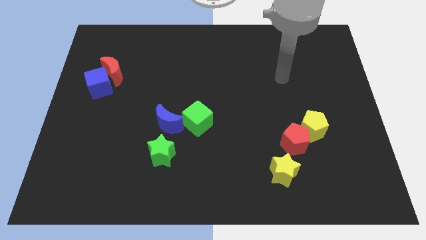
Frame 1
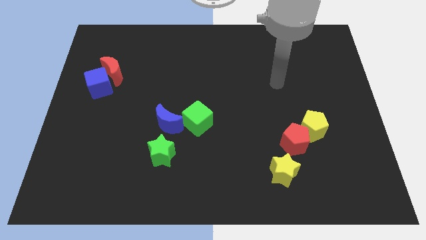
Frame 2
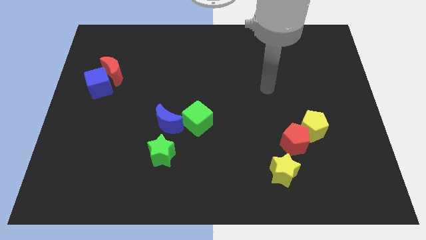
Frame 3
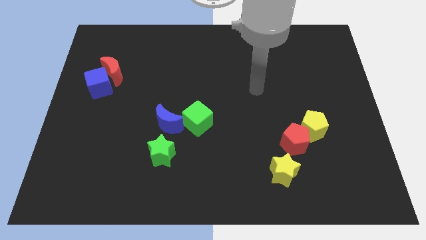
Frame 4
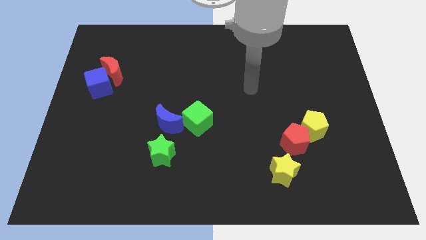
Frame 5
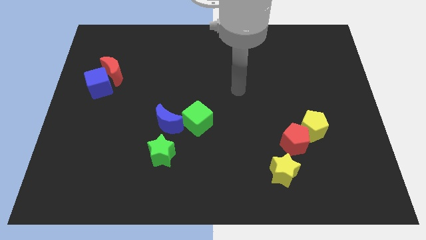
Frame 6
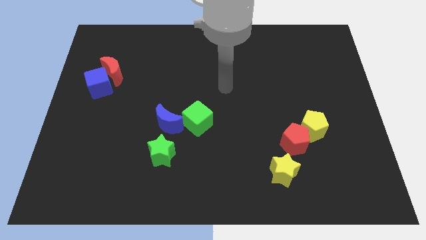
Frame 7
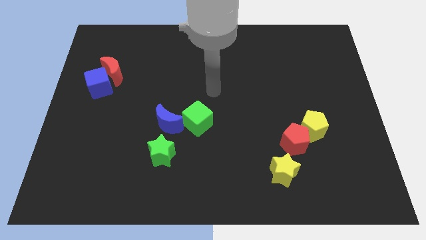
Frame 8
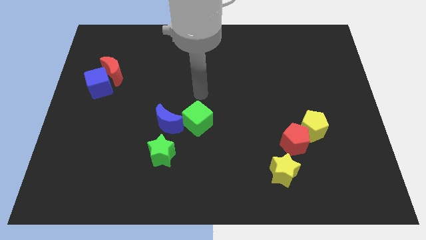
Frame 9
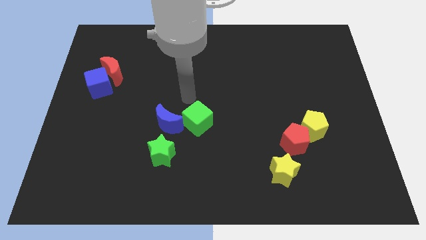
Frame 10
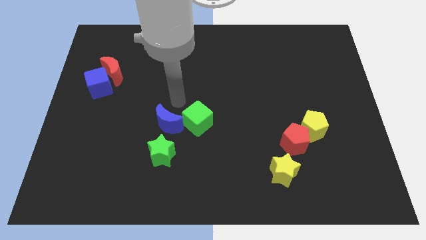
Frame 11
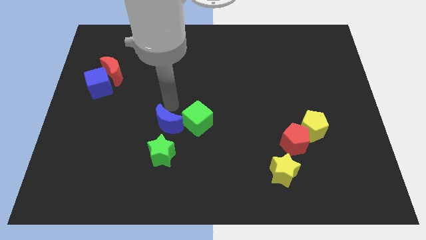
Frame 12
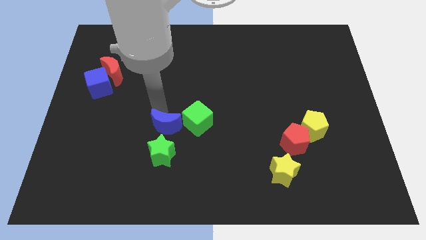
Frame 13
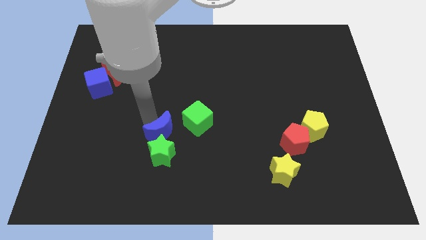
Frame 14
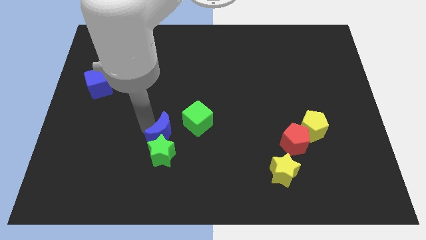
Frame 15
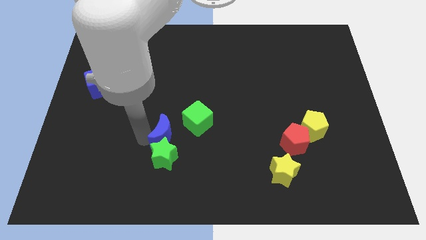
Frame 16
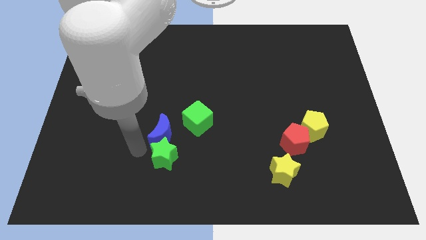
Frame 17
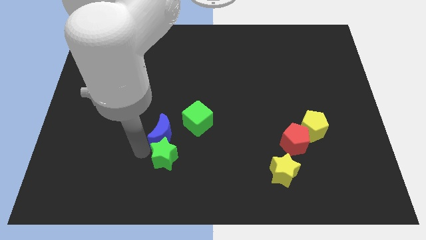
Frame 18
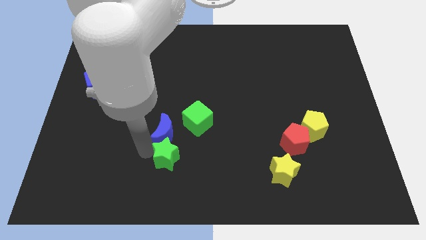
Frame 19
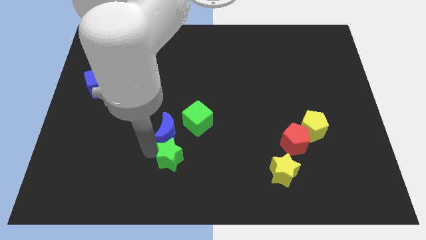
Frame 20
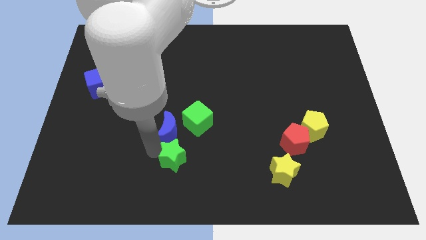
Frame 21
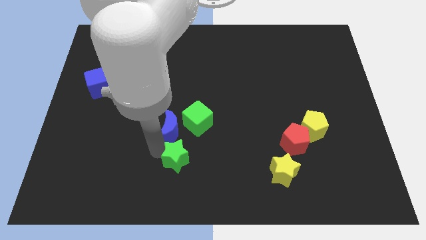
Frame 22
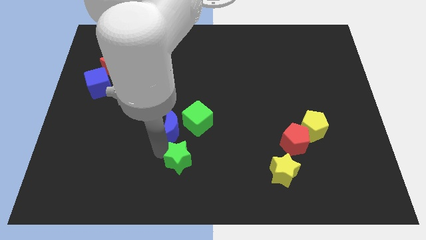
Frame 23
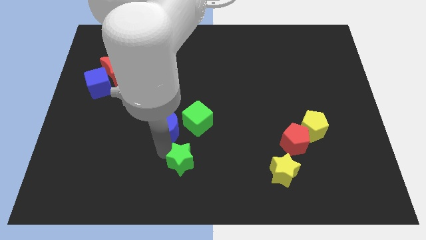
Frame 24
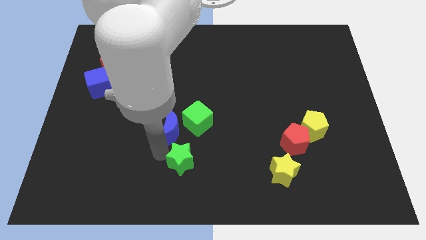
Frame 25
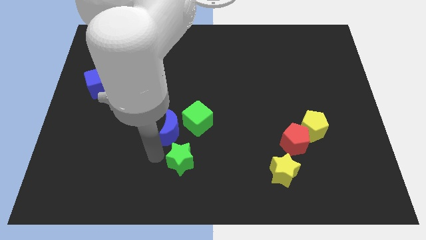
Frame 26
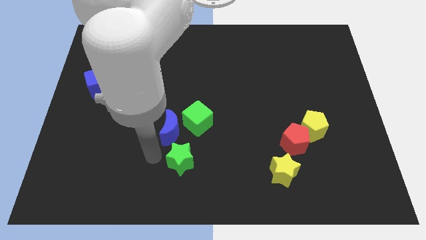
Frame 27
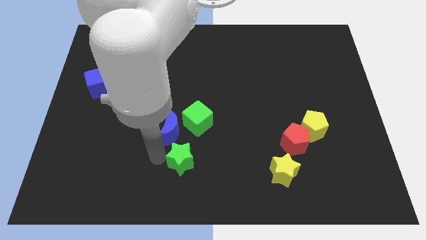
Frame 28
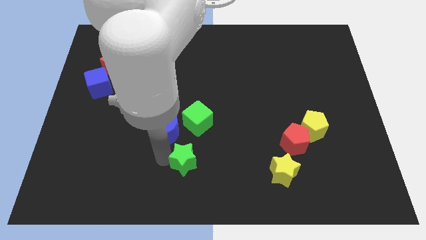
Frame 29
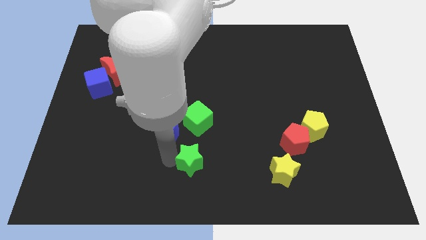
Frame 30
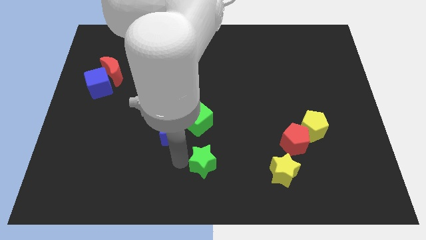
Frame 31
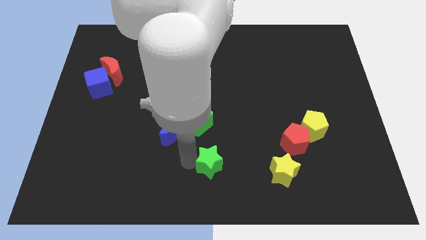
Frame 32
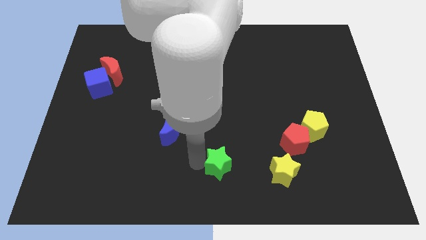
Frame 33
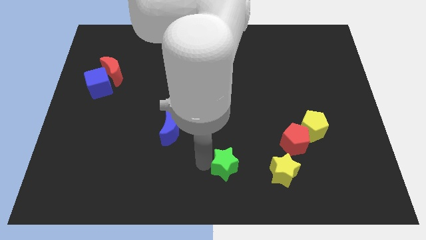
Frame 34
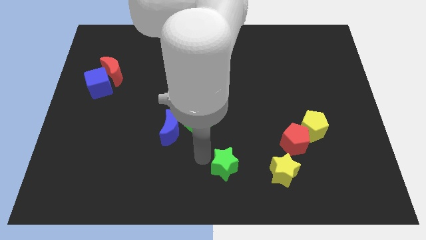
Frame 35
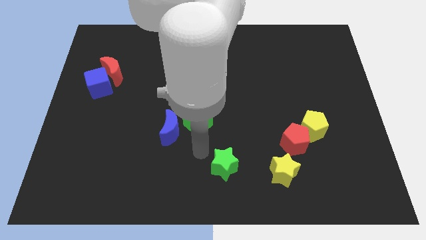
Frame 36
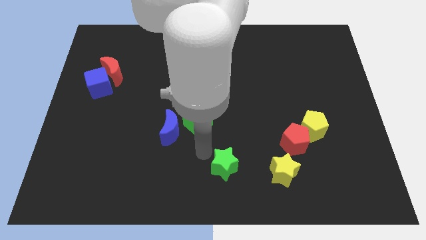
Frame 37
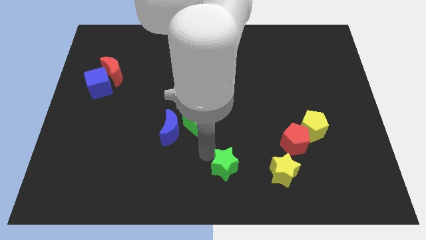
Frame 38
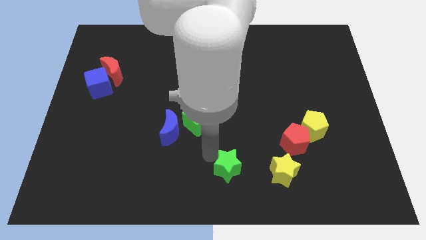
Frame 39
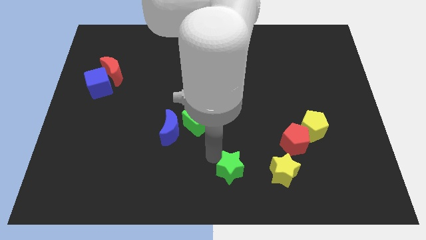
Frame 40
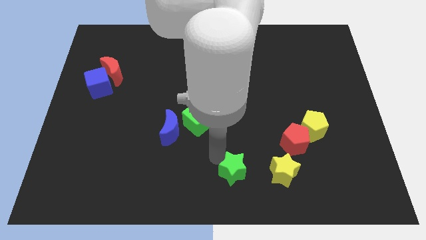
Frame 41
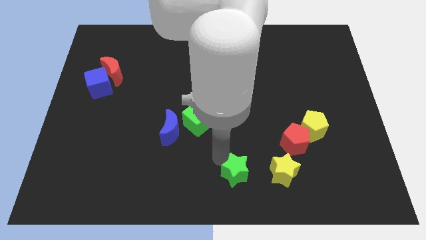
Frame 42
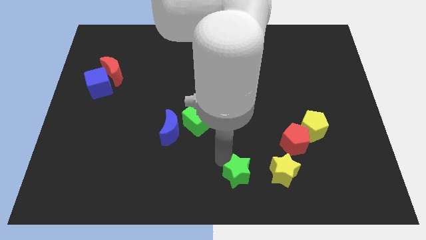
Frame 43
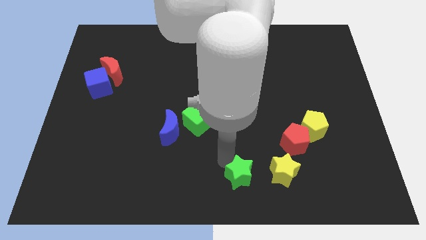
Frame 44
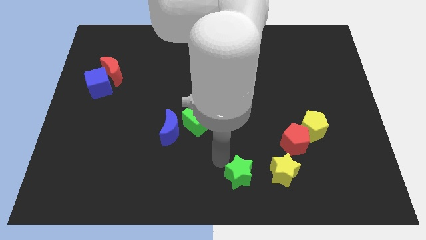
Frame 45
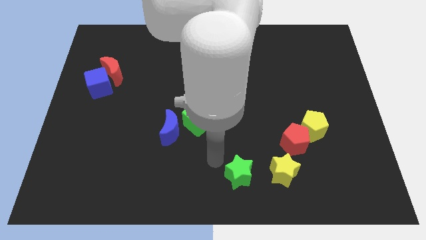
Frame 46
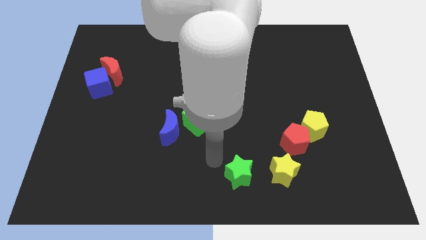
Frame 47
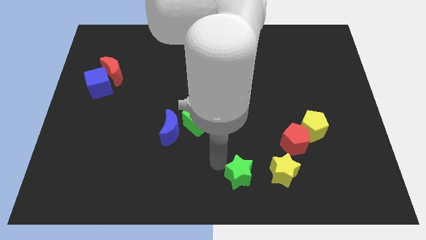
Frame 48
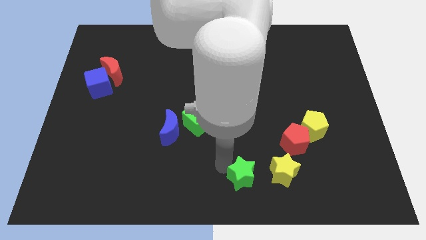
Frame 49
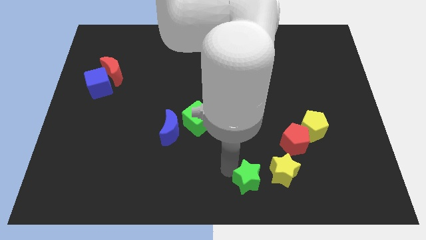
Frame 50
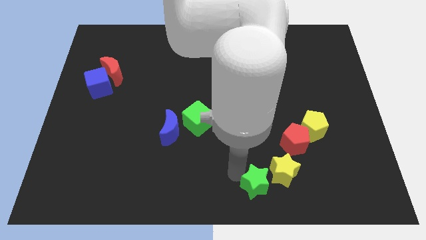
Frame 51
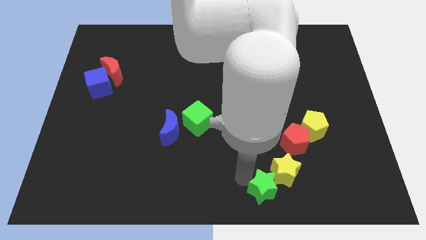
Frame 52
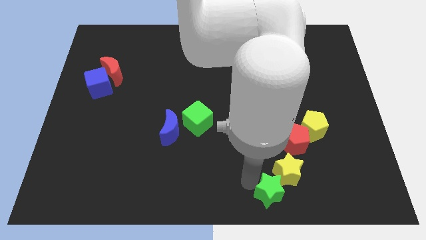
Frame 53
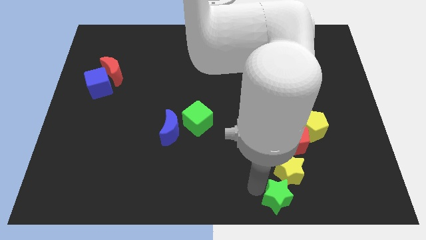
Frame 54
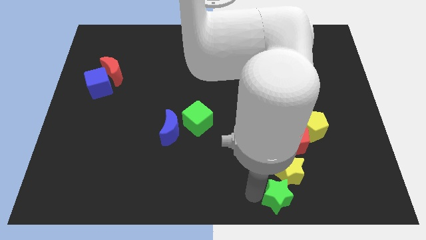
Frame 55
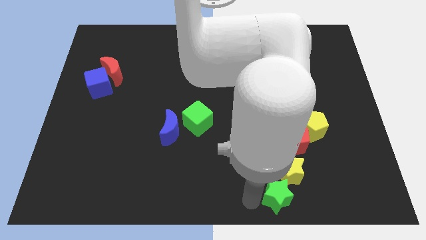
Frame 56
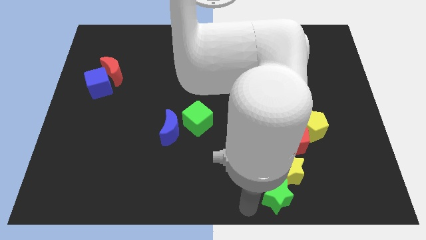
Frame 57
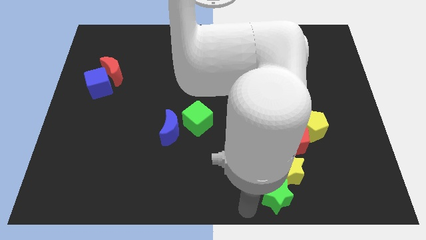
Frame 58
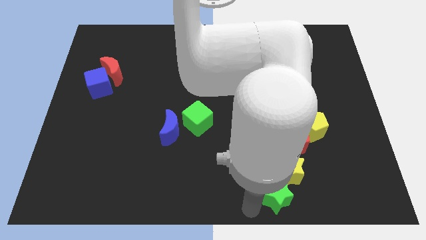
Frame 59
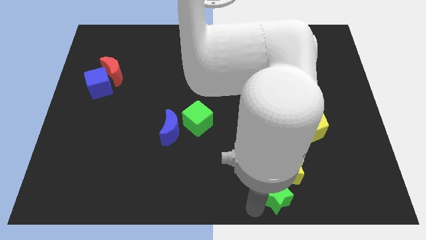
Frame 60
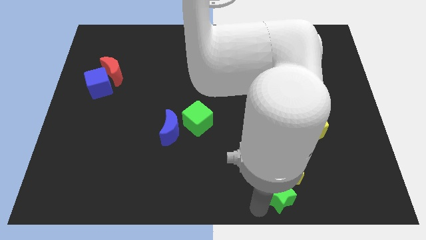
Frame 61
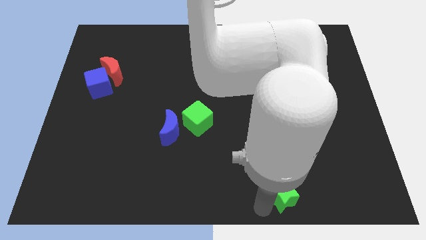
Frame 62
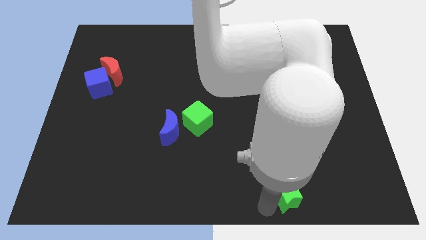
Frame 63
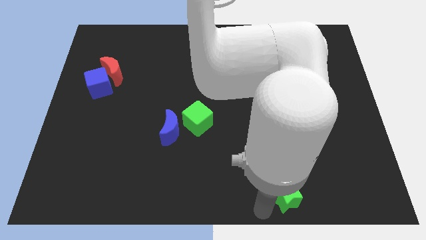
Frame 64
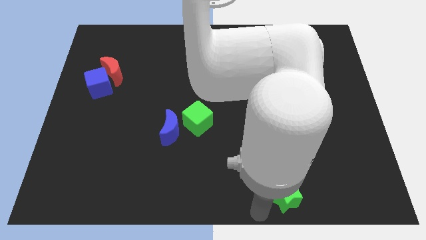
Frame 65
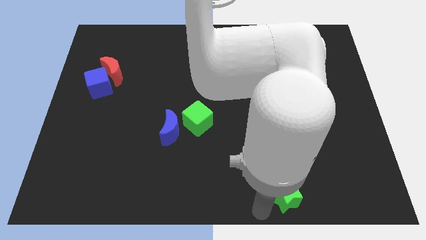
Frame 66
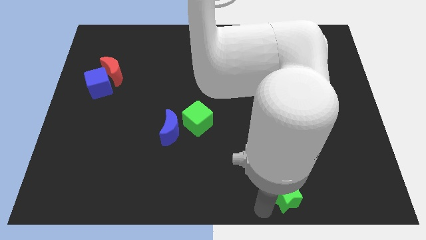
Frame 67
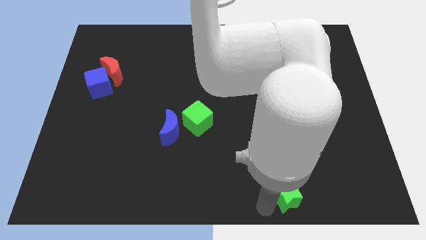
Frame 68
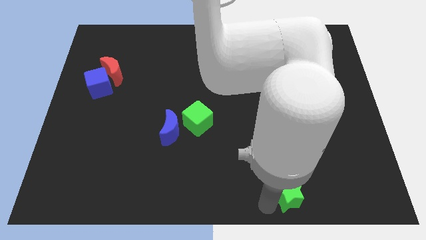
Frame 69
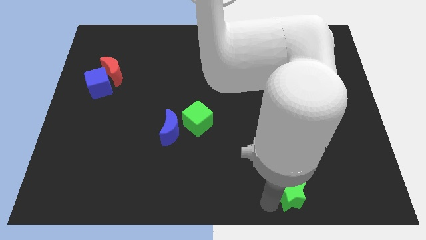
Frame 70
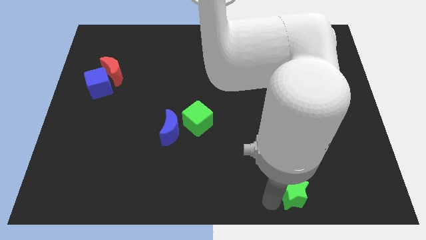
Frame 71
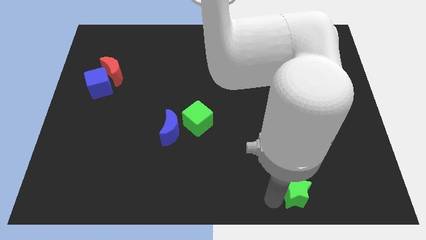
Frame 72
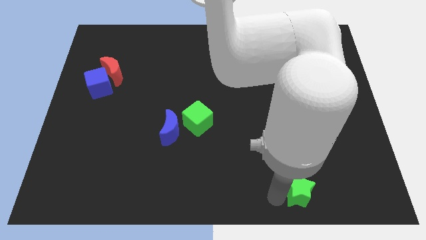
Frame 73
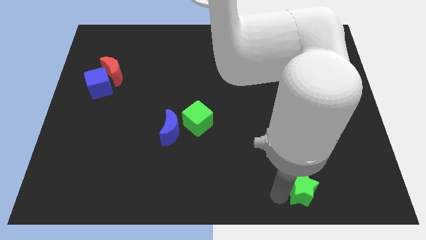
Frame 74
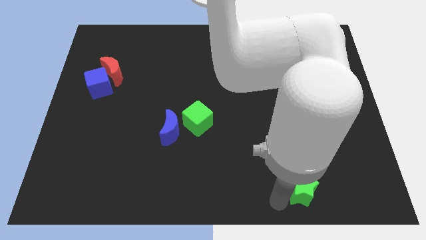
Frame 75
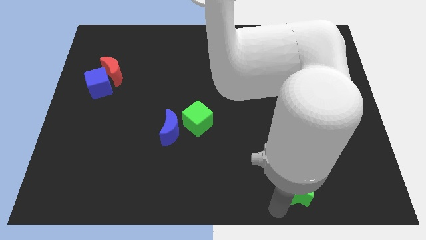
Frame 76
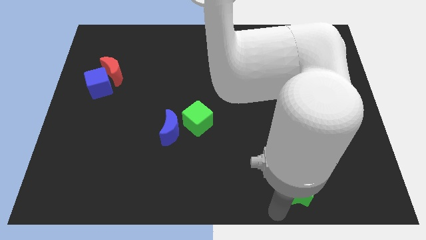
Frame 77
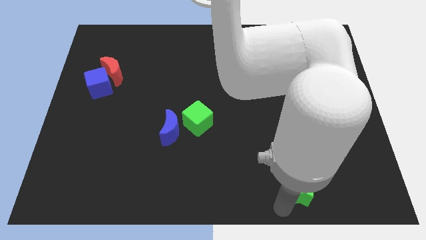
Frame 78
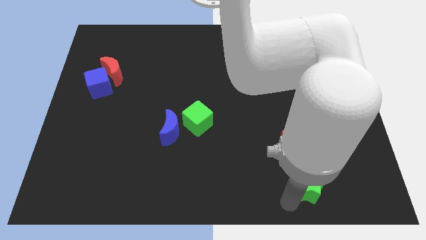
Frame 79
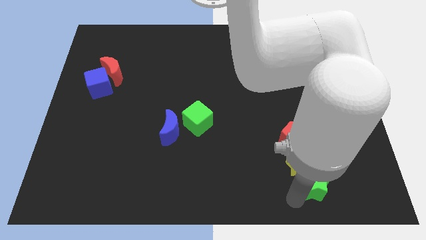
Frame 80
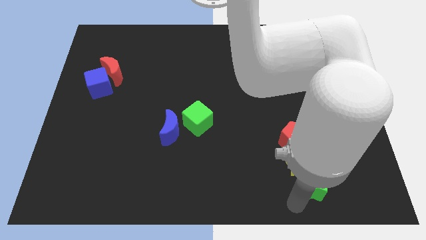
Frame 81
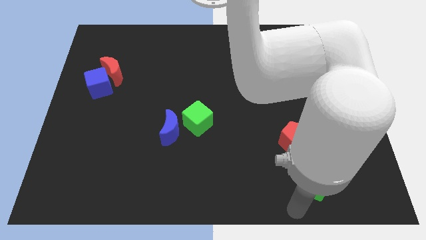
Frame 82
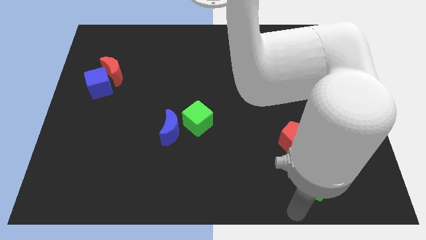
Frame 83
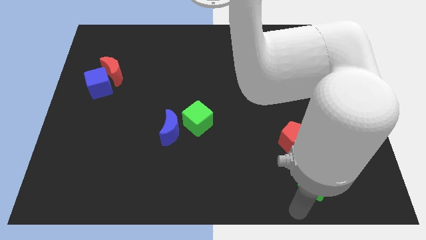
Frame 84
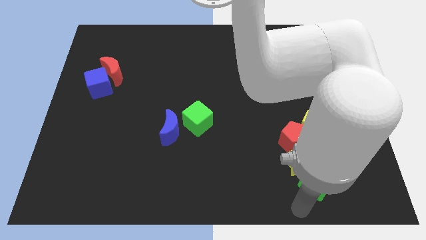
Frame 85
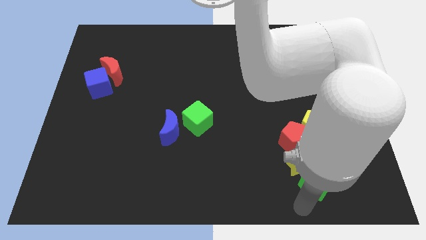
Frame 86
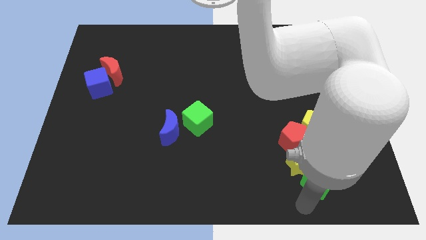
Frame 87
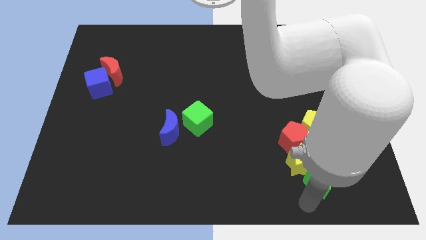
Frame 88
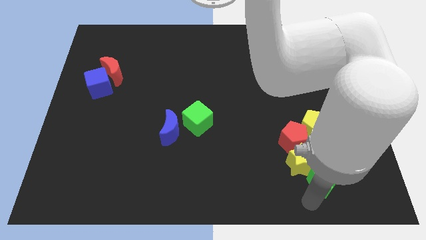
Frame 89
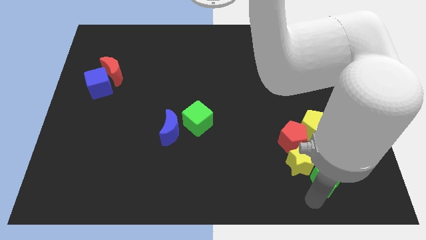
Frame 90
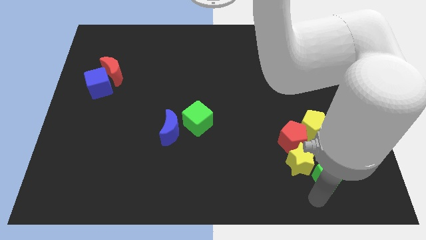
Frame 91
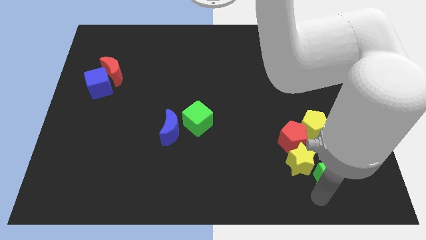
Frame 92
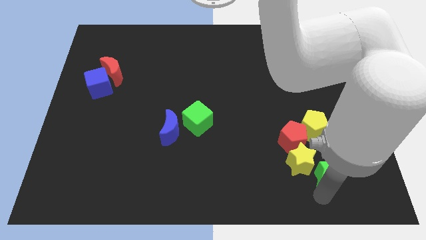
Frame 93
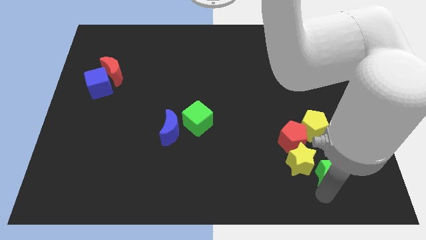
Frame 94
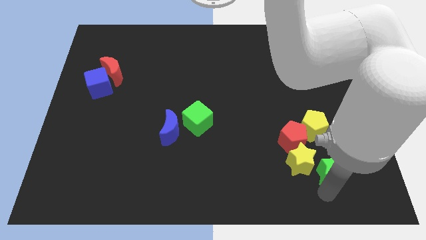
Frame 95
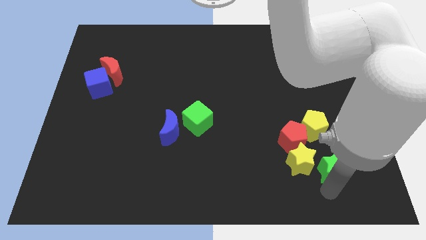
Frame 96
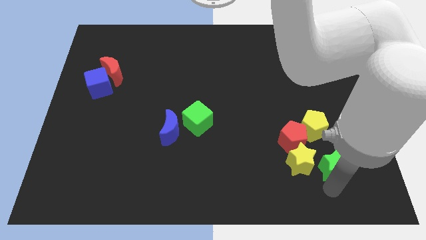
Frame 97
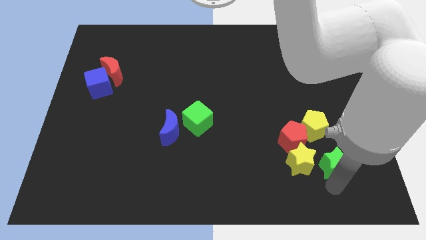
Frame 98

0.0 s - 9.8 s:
slide the green star to the bottom right of the yellow pentagon
